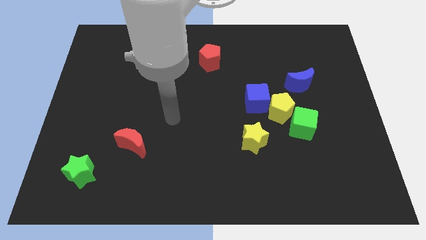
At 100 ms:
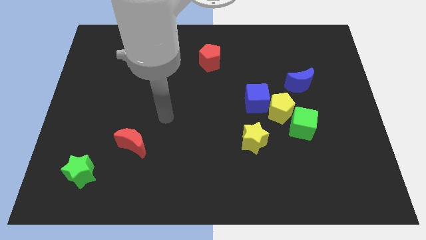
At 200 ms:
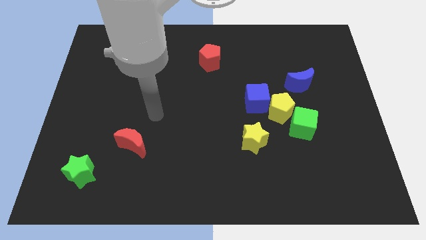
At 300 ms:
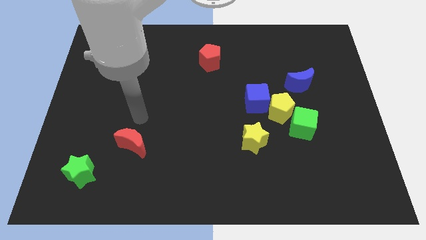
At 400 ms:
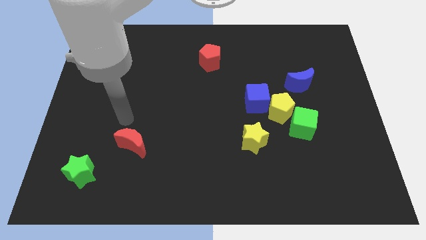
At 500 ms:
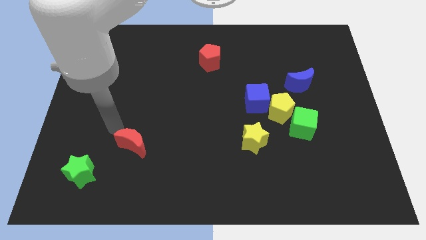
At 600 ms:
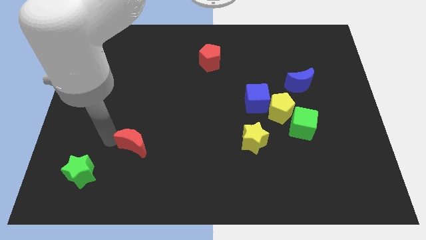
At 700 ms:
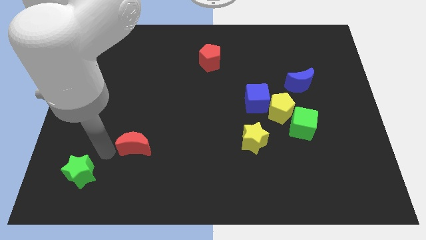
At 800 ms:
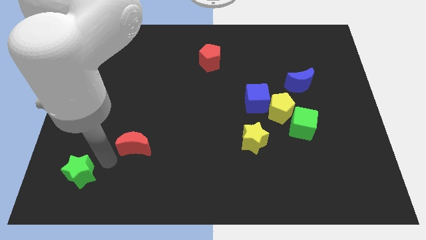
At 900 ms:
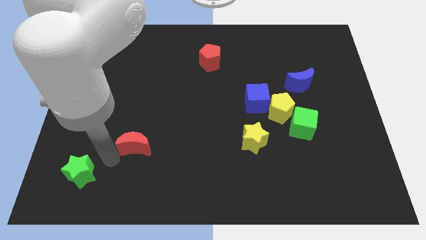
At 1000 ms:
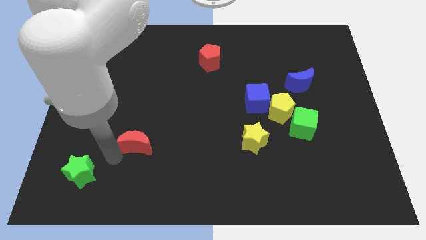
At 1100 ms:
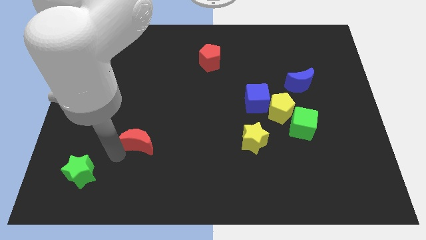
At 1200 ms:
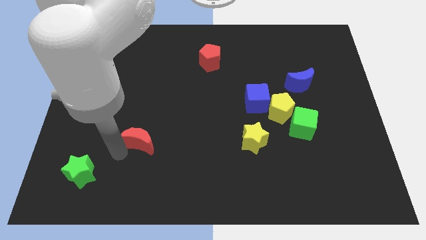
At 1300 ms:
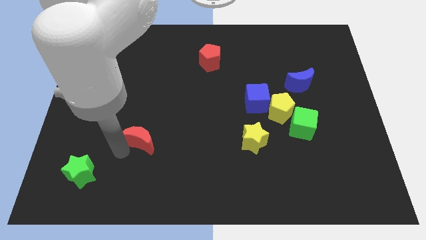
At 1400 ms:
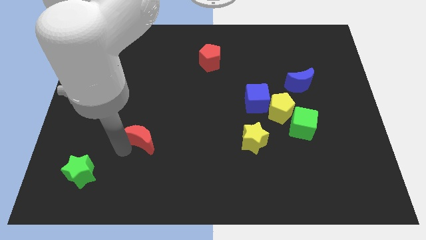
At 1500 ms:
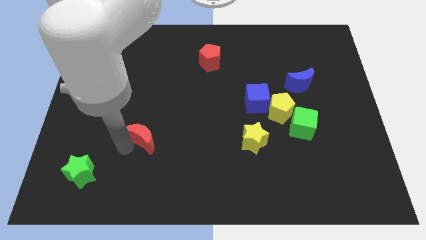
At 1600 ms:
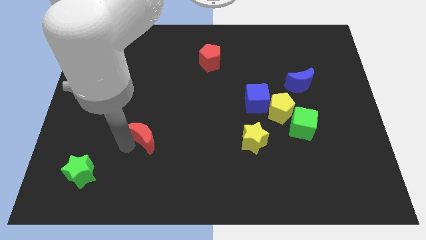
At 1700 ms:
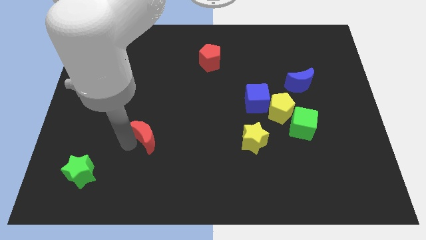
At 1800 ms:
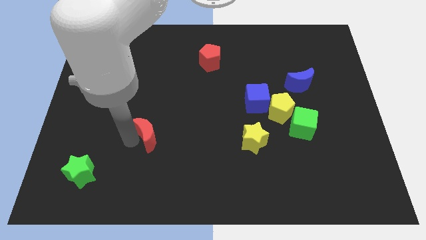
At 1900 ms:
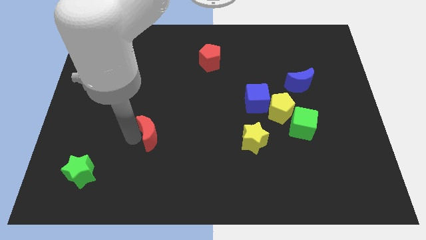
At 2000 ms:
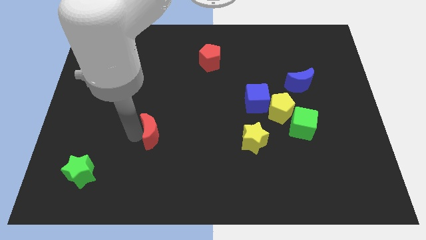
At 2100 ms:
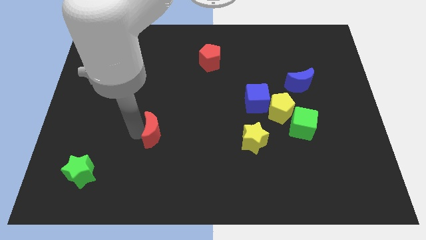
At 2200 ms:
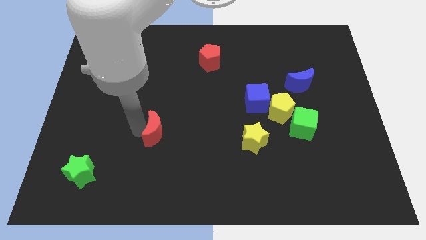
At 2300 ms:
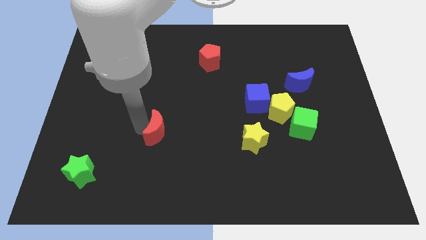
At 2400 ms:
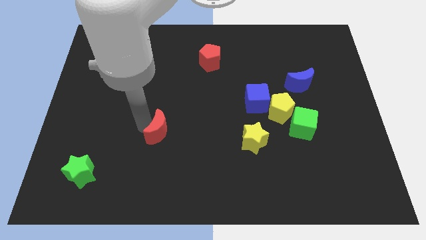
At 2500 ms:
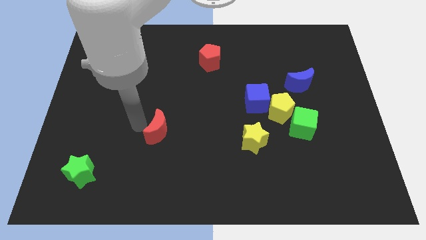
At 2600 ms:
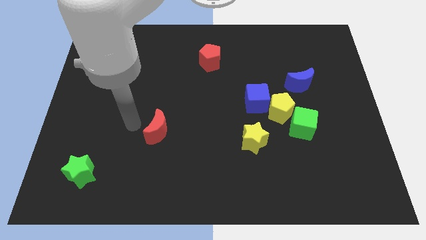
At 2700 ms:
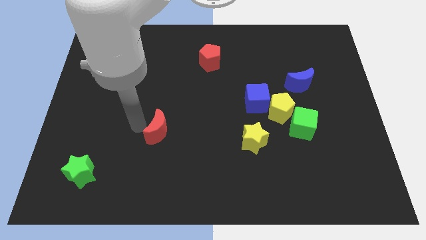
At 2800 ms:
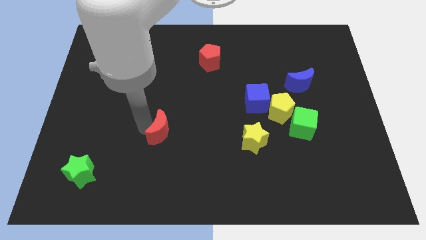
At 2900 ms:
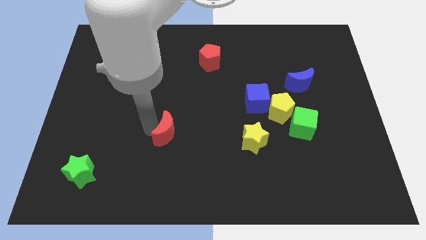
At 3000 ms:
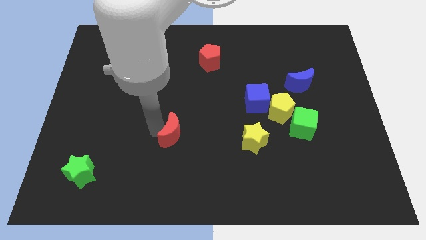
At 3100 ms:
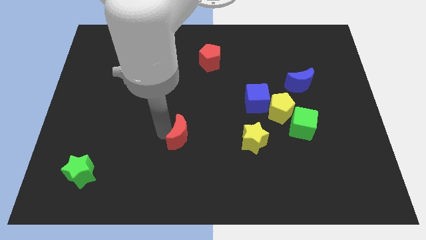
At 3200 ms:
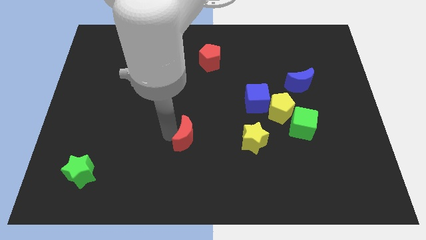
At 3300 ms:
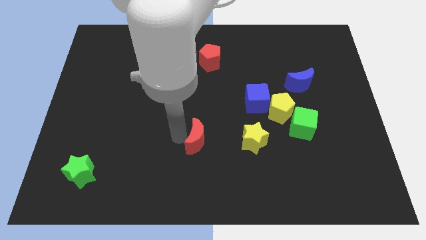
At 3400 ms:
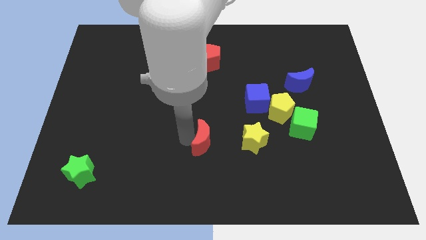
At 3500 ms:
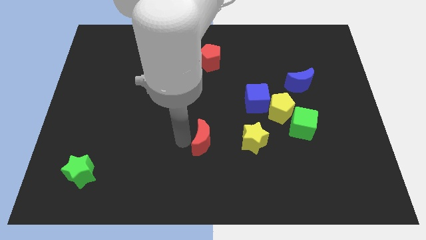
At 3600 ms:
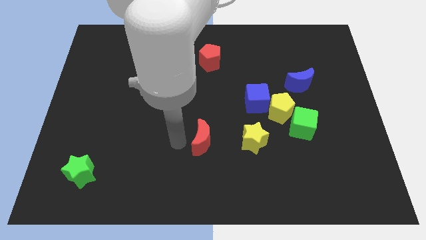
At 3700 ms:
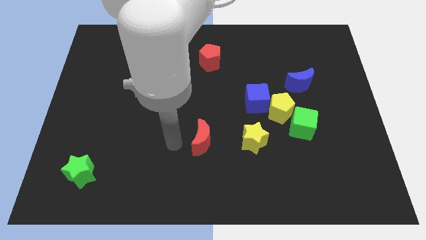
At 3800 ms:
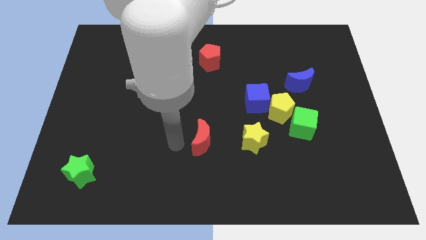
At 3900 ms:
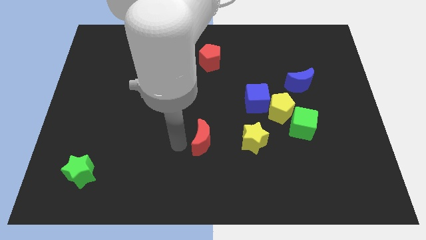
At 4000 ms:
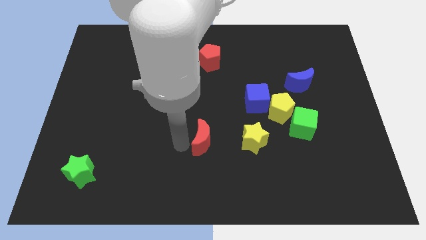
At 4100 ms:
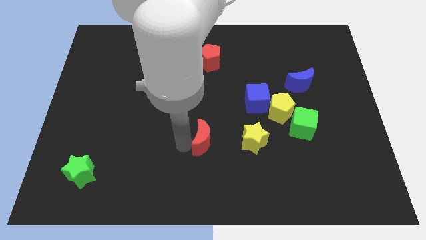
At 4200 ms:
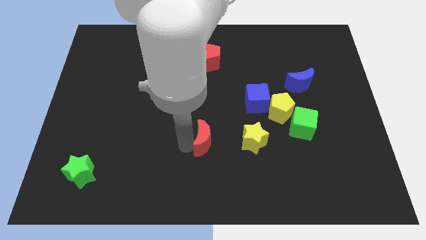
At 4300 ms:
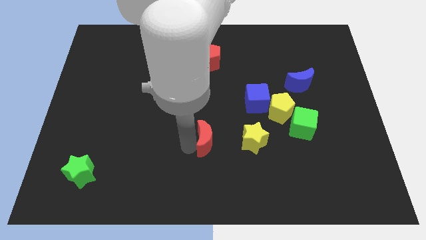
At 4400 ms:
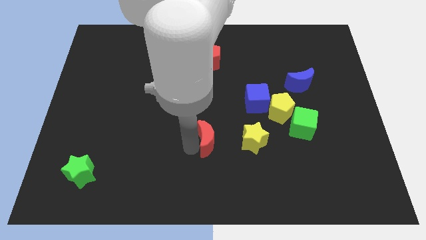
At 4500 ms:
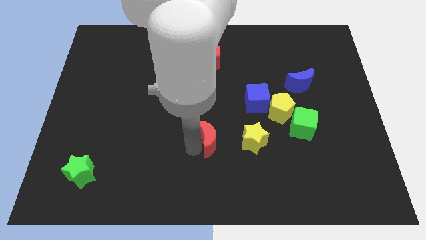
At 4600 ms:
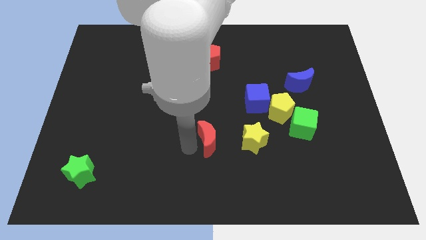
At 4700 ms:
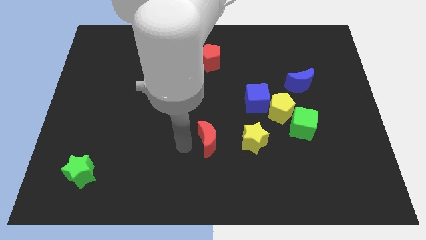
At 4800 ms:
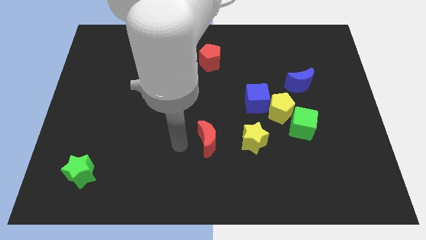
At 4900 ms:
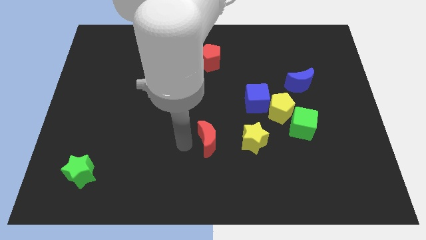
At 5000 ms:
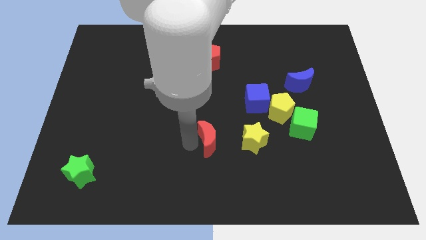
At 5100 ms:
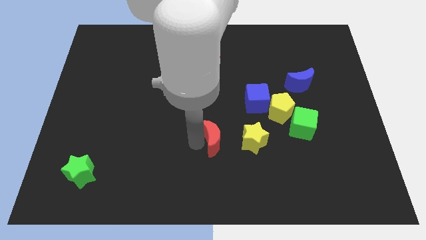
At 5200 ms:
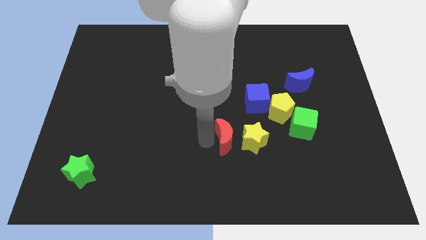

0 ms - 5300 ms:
put the red moon to the yellow star

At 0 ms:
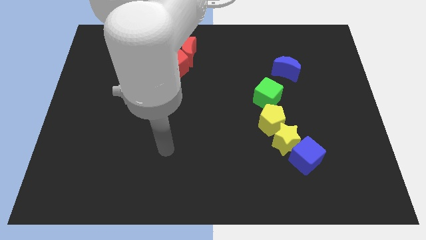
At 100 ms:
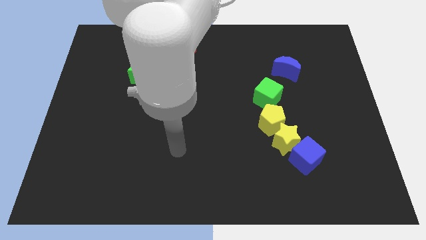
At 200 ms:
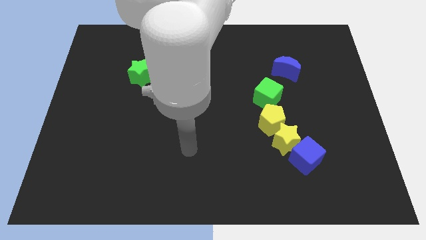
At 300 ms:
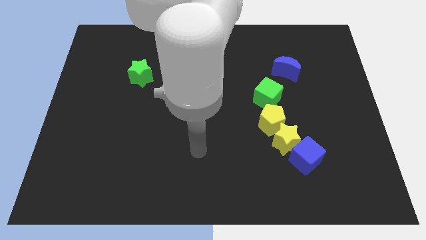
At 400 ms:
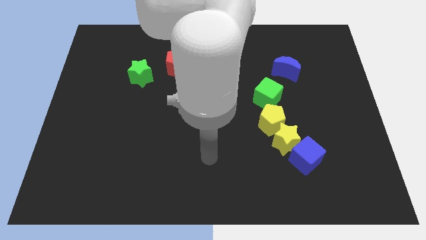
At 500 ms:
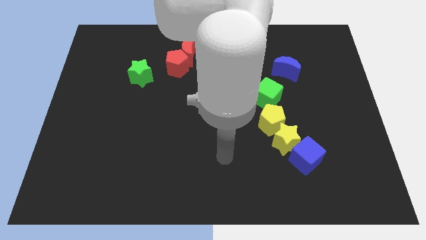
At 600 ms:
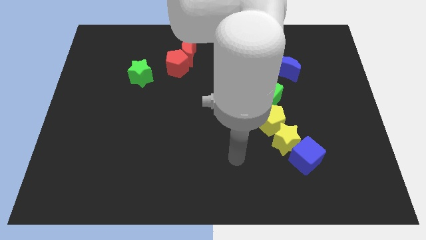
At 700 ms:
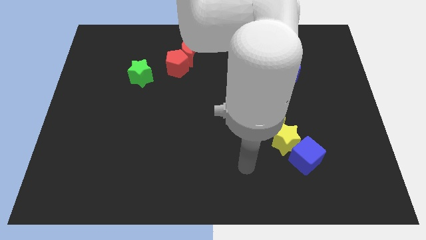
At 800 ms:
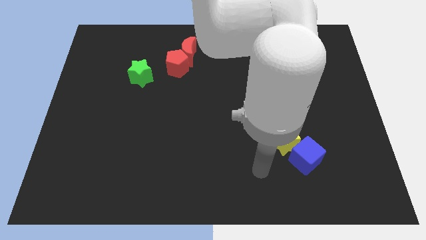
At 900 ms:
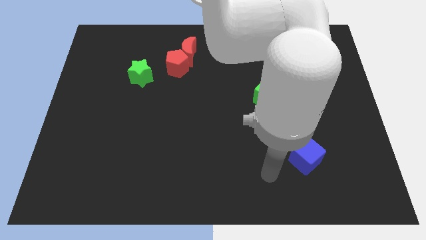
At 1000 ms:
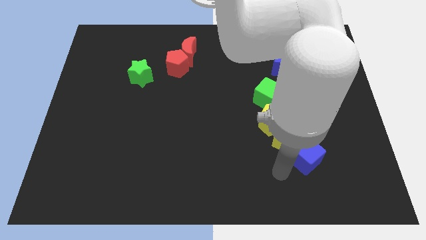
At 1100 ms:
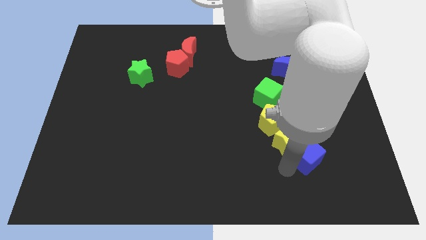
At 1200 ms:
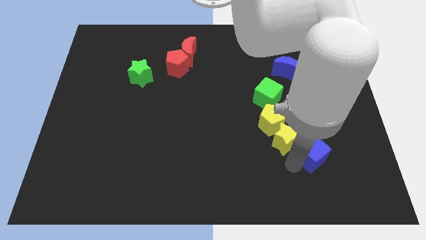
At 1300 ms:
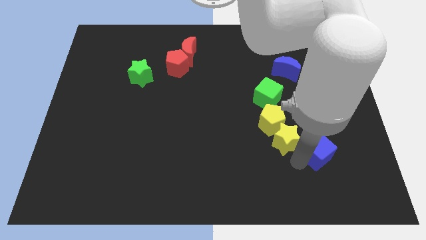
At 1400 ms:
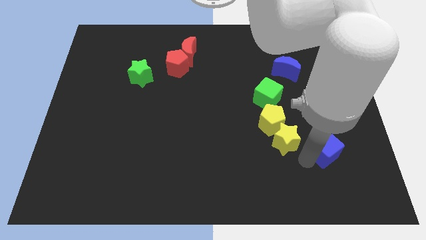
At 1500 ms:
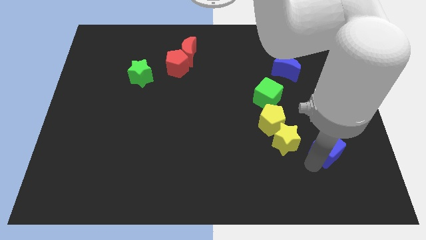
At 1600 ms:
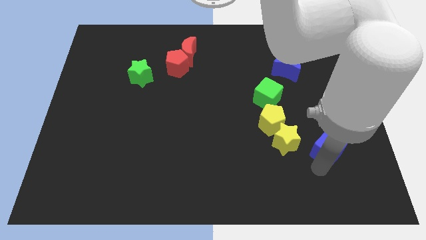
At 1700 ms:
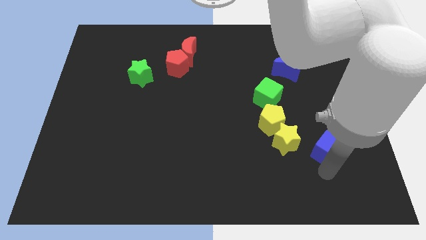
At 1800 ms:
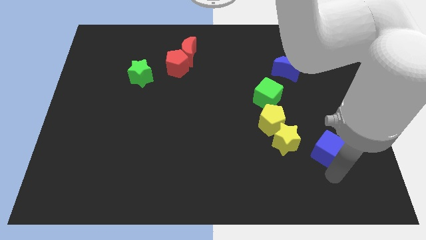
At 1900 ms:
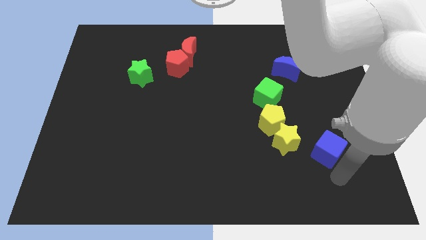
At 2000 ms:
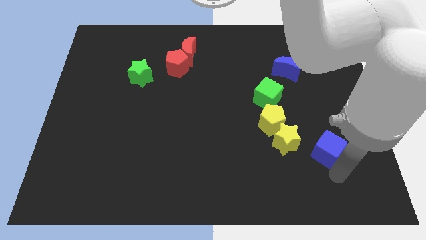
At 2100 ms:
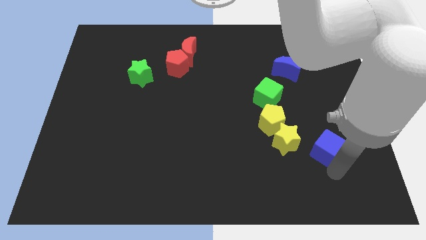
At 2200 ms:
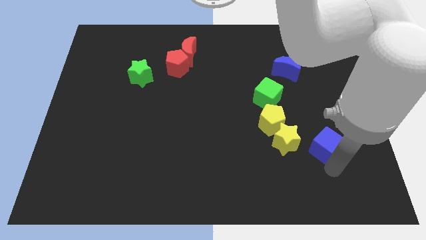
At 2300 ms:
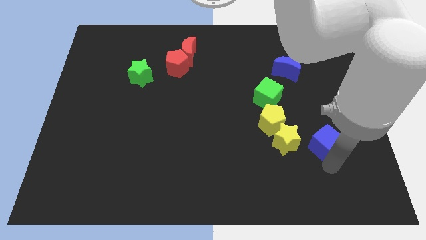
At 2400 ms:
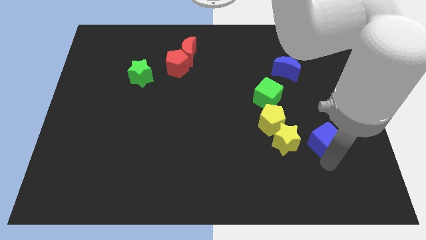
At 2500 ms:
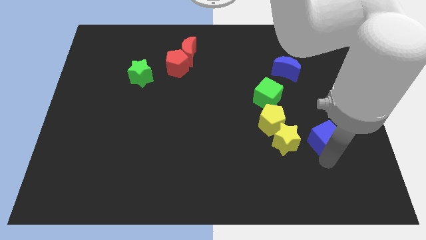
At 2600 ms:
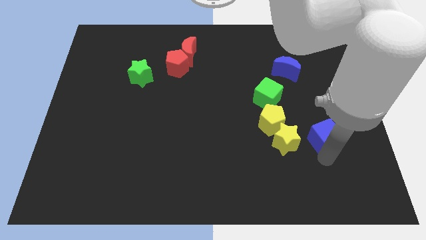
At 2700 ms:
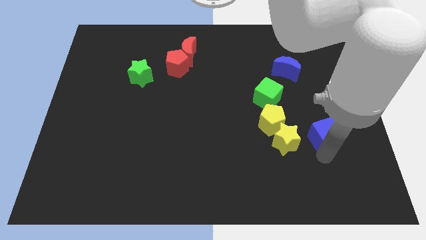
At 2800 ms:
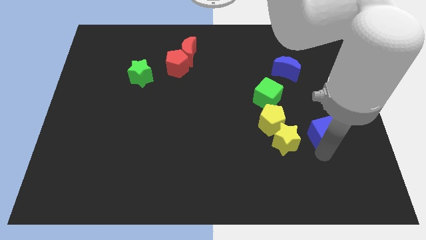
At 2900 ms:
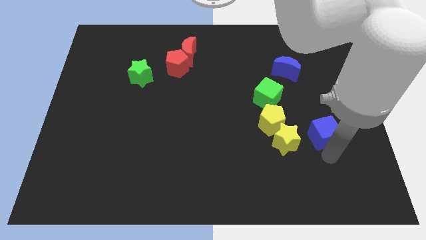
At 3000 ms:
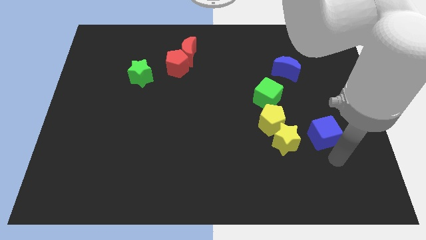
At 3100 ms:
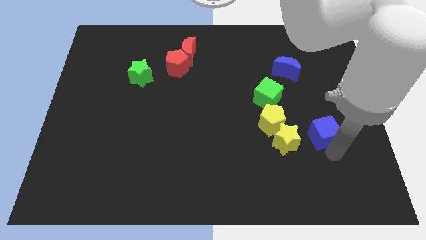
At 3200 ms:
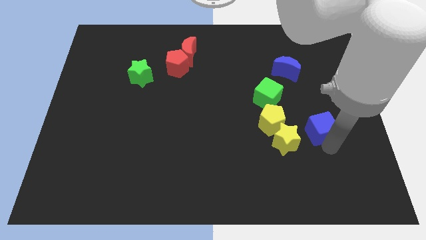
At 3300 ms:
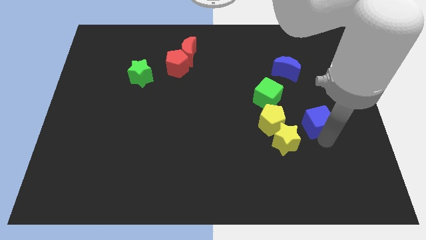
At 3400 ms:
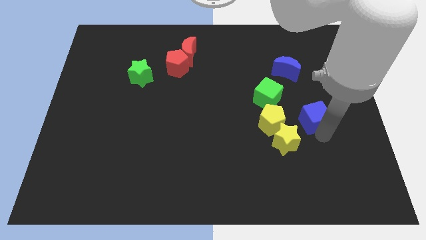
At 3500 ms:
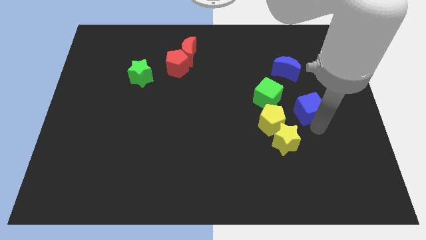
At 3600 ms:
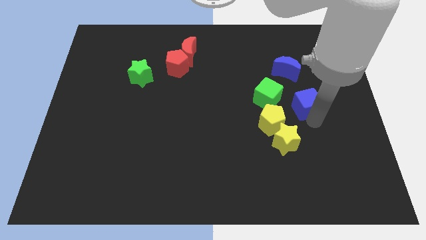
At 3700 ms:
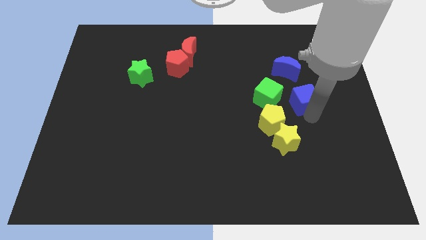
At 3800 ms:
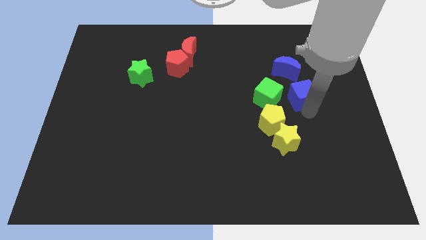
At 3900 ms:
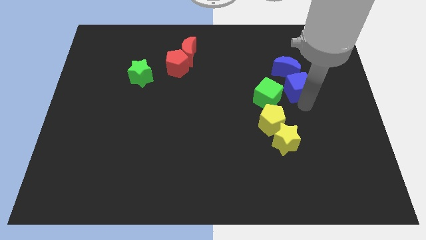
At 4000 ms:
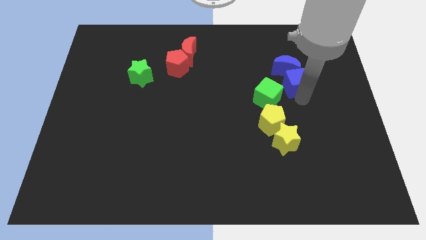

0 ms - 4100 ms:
slide the blue cube next to the blue moon
